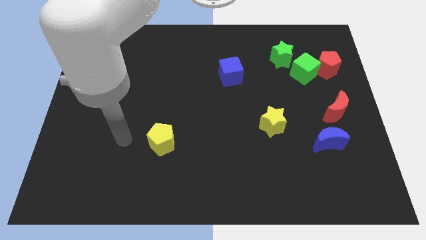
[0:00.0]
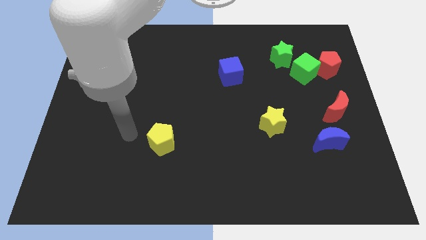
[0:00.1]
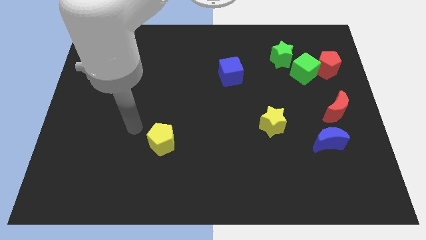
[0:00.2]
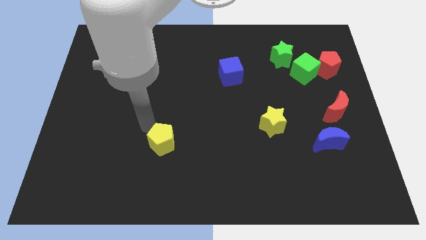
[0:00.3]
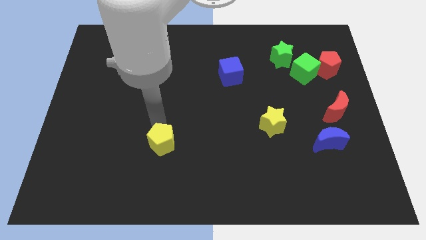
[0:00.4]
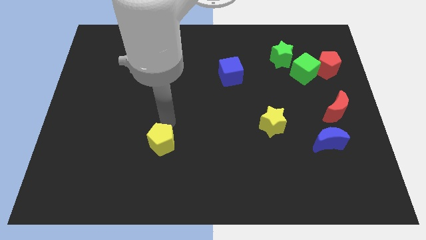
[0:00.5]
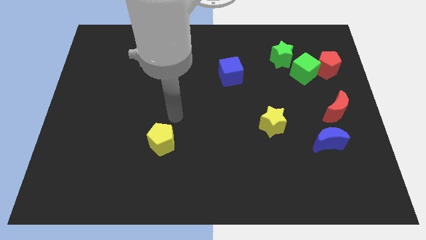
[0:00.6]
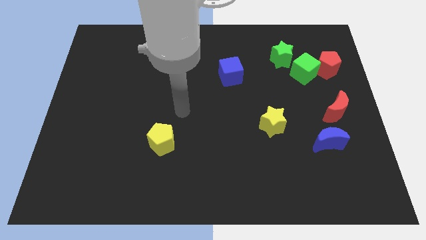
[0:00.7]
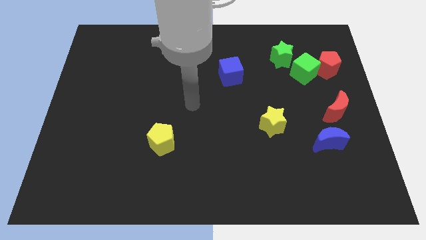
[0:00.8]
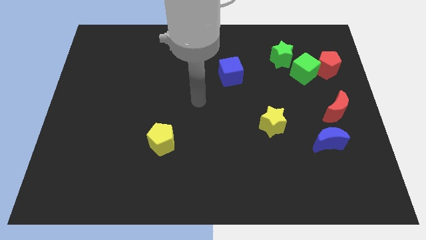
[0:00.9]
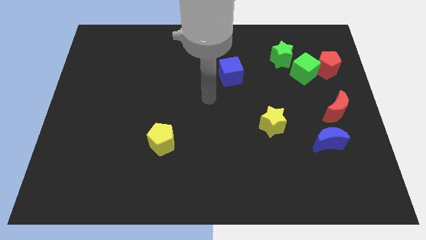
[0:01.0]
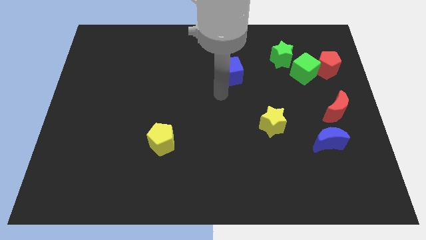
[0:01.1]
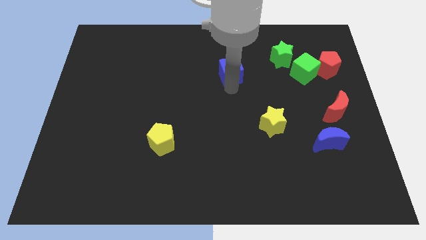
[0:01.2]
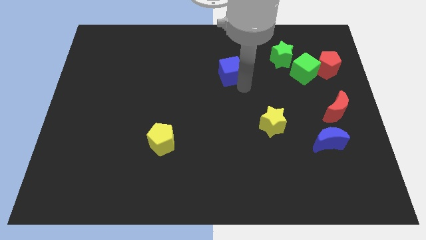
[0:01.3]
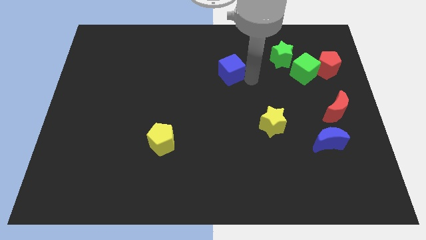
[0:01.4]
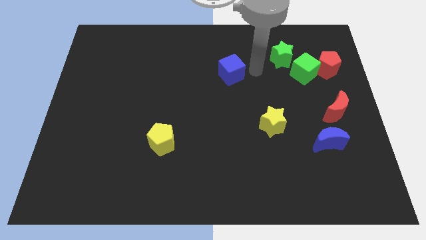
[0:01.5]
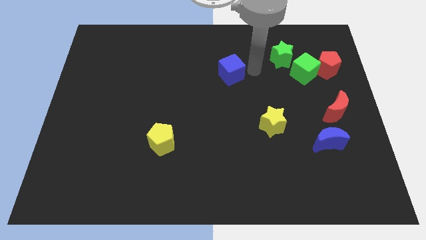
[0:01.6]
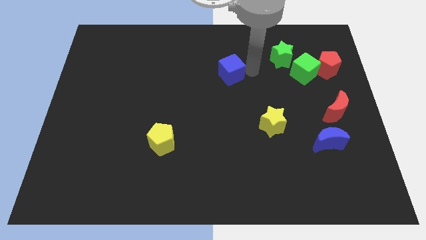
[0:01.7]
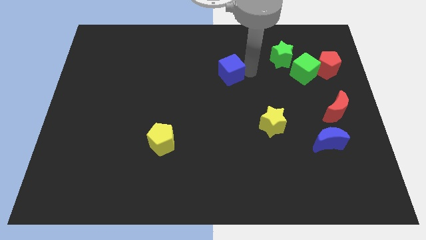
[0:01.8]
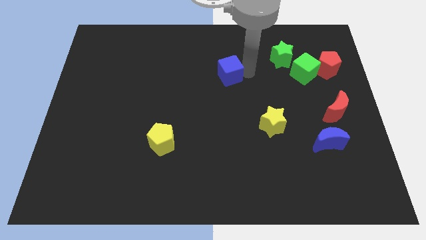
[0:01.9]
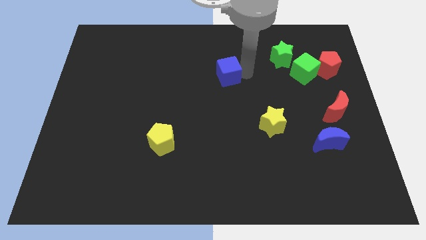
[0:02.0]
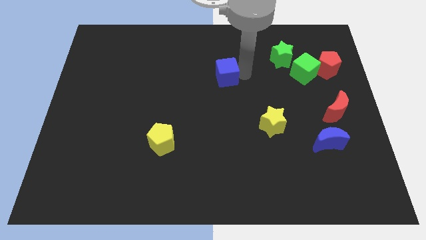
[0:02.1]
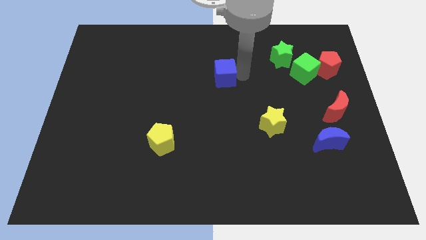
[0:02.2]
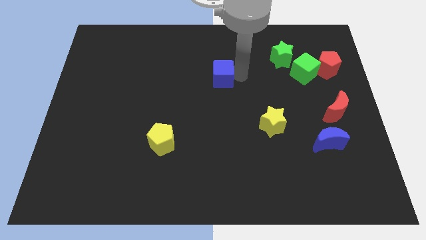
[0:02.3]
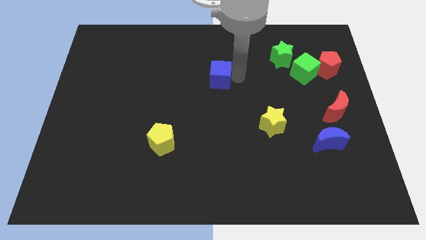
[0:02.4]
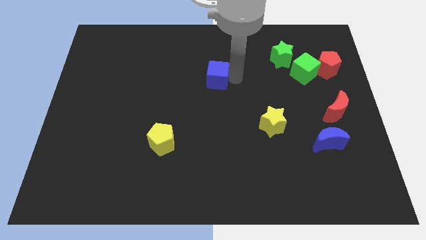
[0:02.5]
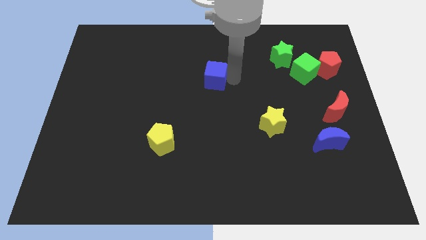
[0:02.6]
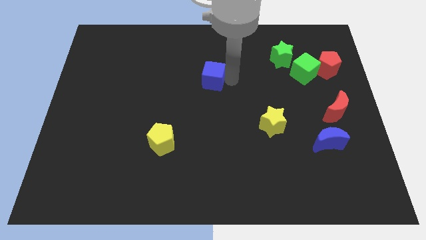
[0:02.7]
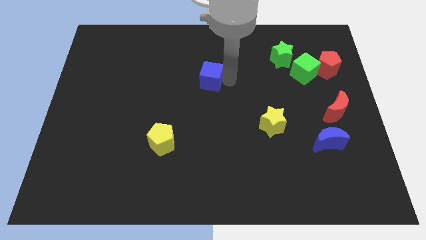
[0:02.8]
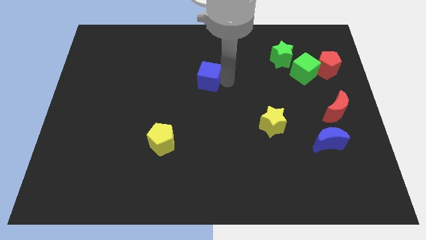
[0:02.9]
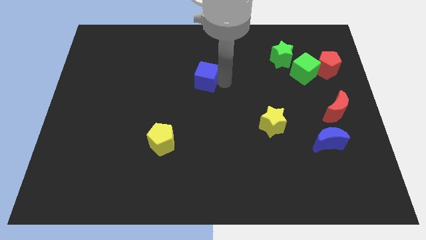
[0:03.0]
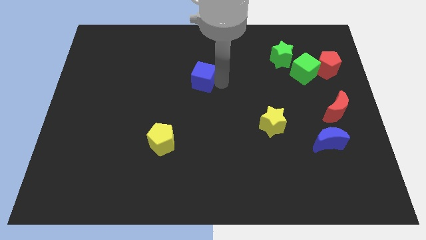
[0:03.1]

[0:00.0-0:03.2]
slightly slide the blue cube to the left

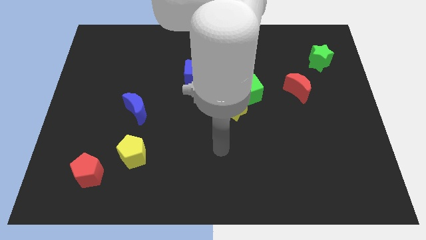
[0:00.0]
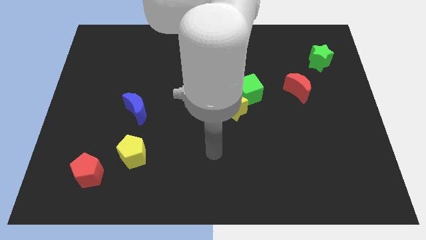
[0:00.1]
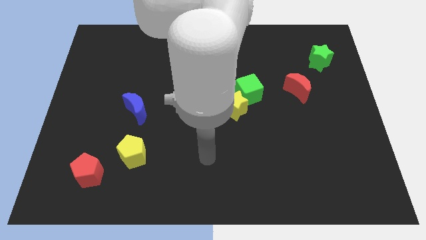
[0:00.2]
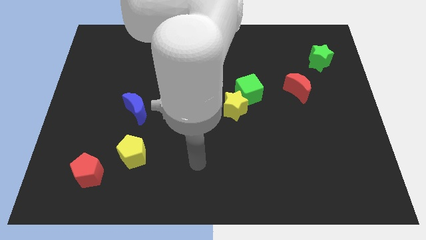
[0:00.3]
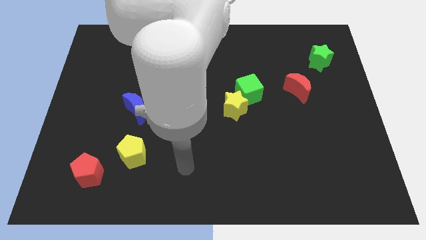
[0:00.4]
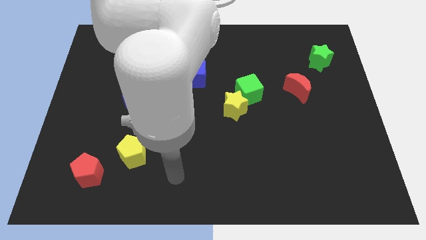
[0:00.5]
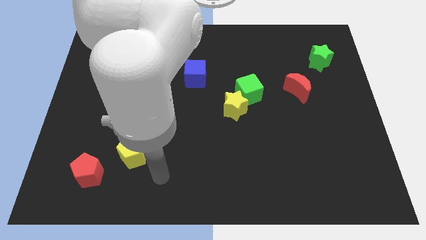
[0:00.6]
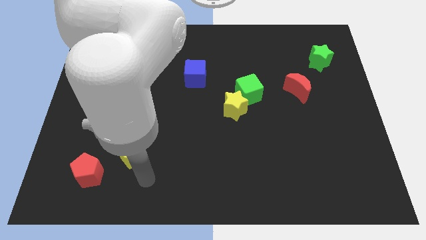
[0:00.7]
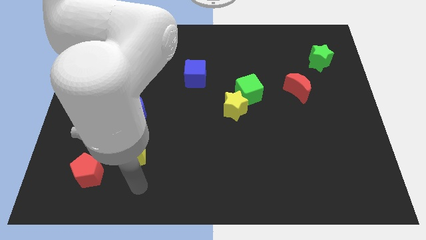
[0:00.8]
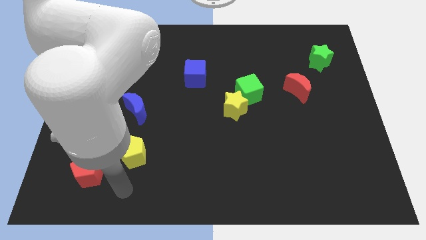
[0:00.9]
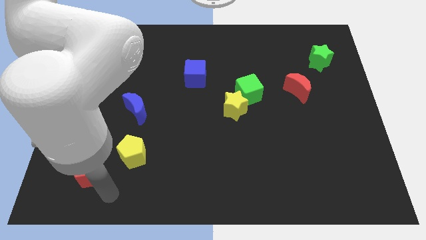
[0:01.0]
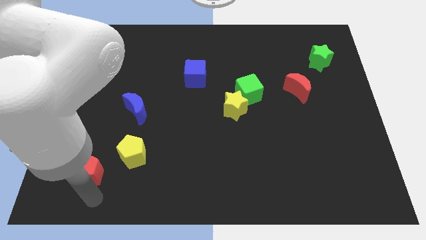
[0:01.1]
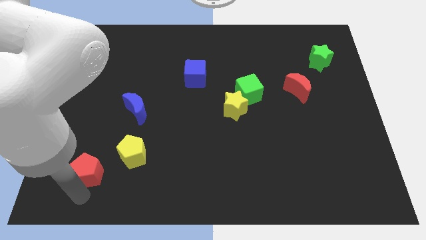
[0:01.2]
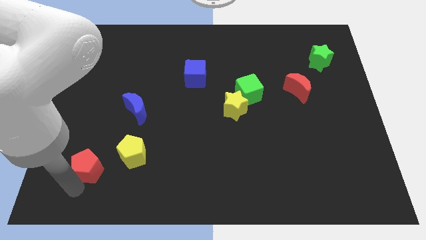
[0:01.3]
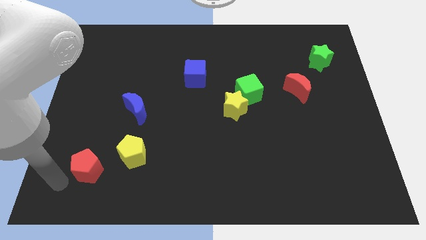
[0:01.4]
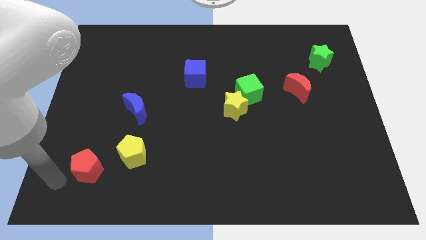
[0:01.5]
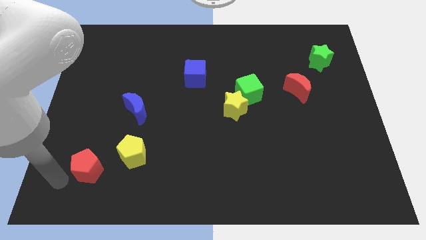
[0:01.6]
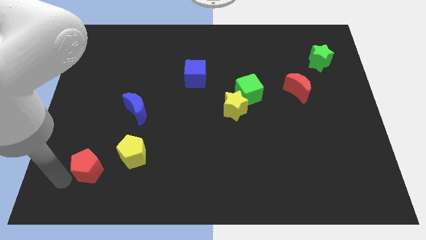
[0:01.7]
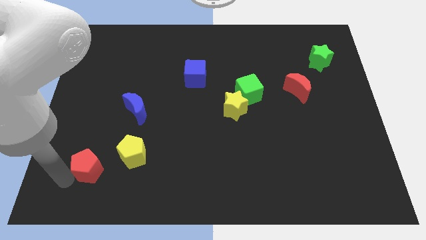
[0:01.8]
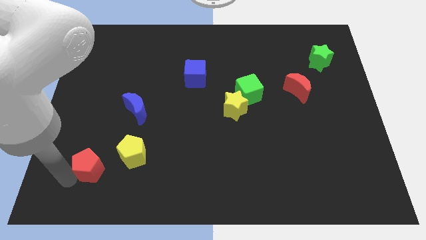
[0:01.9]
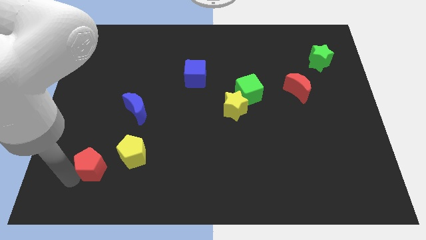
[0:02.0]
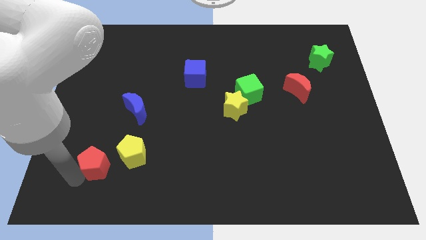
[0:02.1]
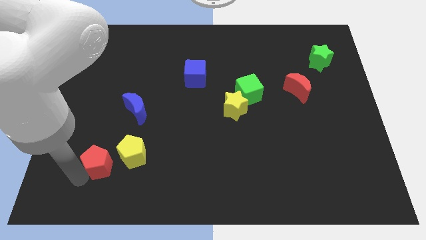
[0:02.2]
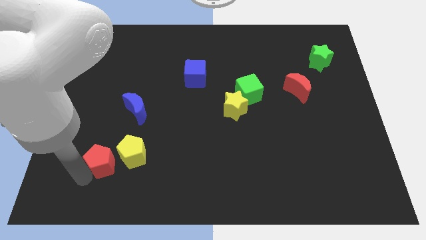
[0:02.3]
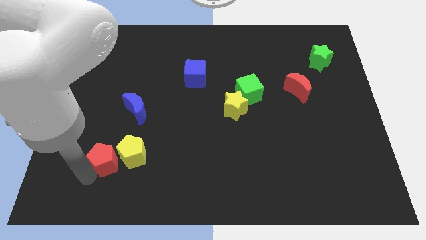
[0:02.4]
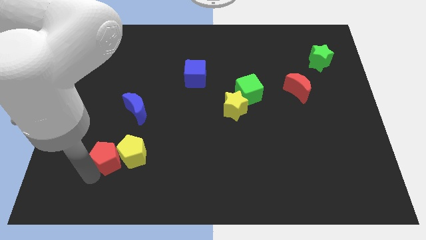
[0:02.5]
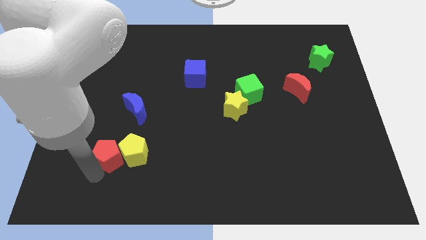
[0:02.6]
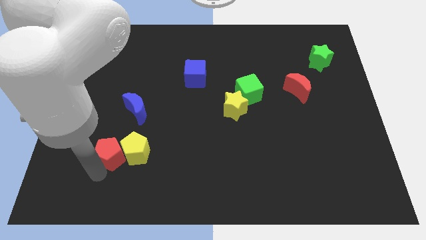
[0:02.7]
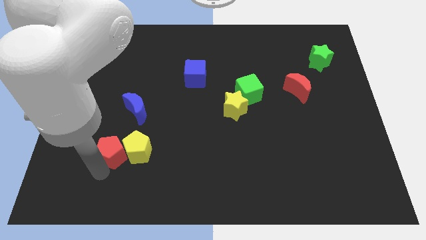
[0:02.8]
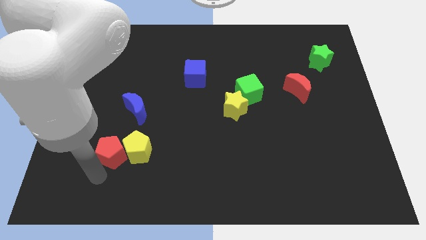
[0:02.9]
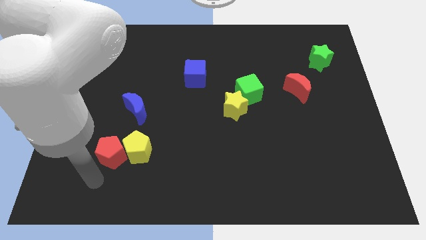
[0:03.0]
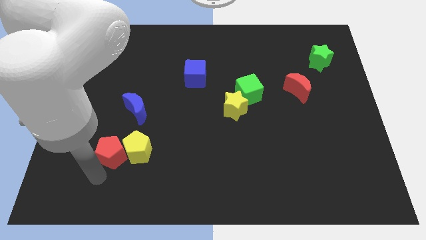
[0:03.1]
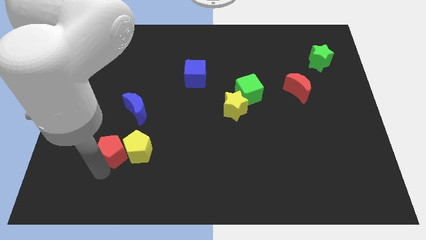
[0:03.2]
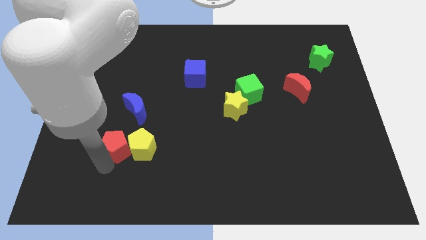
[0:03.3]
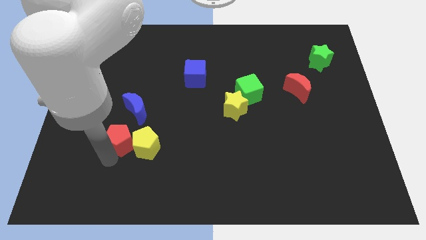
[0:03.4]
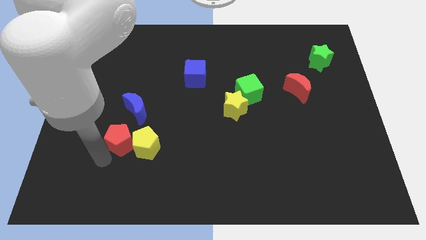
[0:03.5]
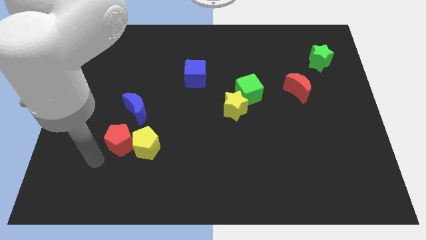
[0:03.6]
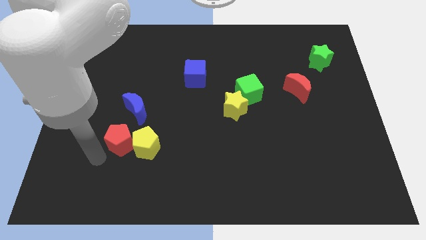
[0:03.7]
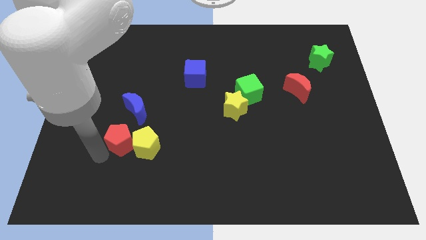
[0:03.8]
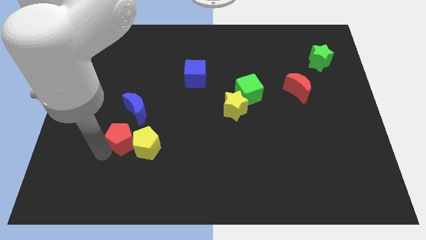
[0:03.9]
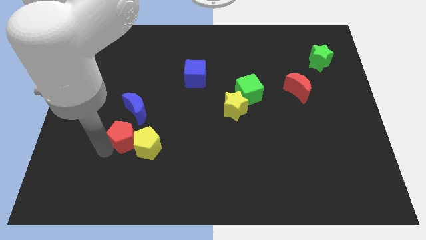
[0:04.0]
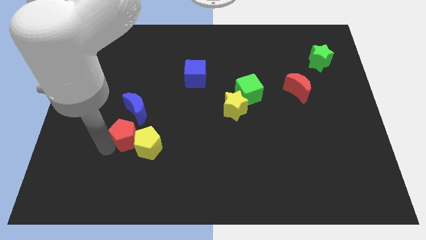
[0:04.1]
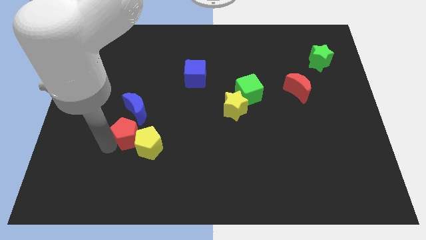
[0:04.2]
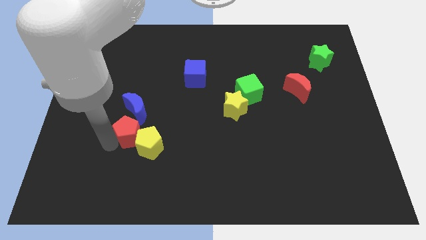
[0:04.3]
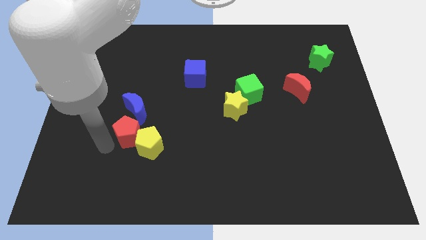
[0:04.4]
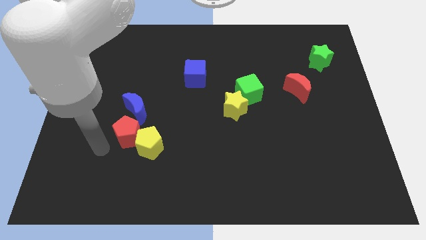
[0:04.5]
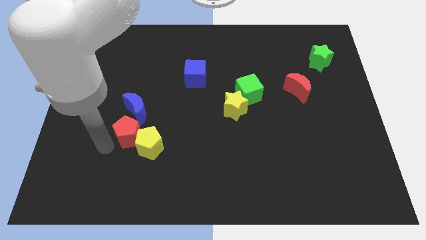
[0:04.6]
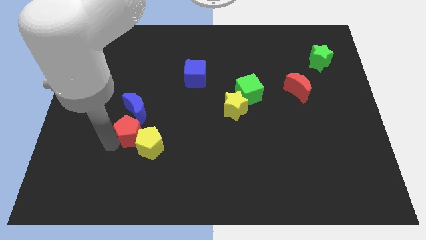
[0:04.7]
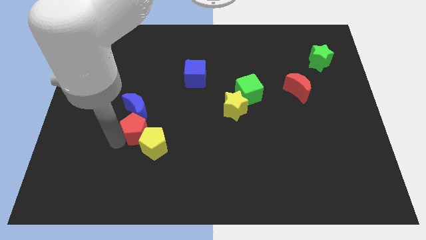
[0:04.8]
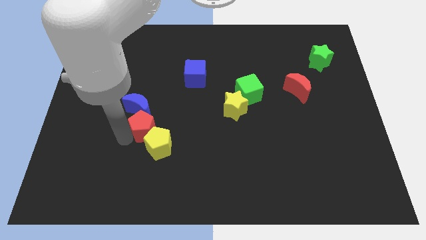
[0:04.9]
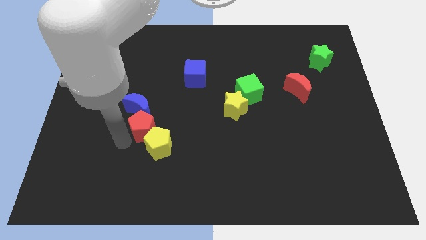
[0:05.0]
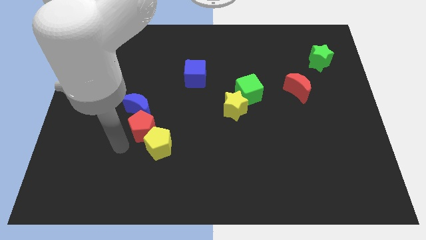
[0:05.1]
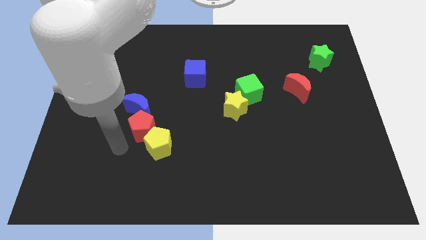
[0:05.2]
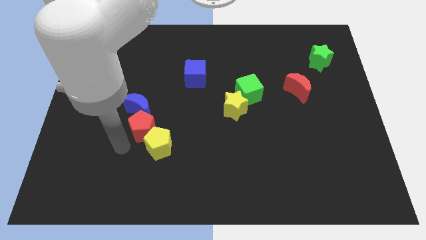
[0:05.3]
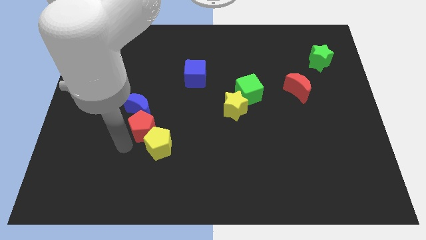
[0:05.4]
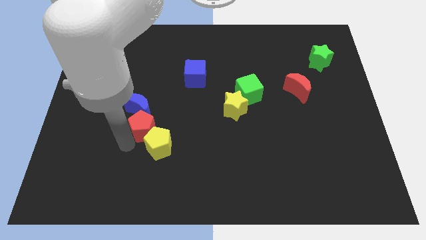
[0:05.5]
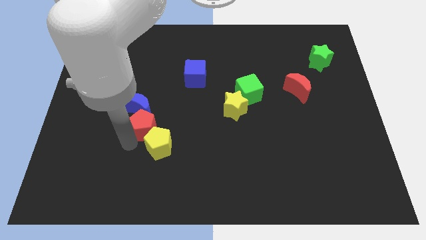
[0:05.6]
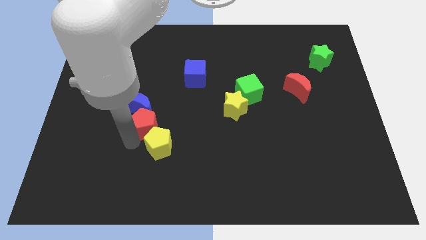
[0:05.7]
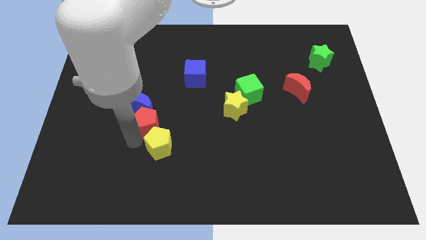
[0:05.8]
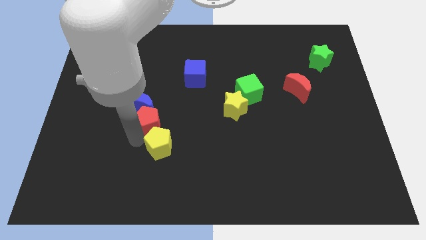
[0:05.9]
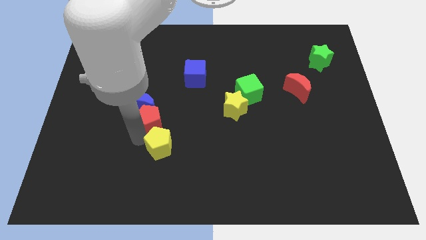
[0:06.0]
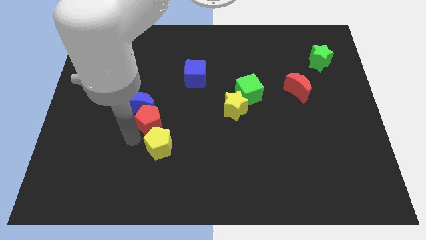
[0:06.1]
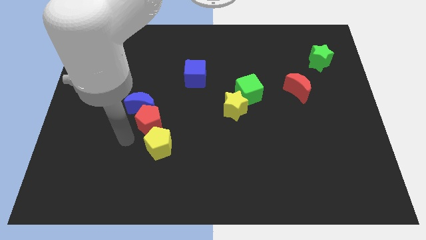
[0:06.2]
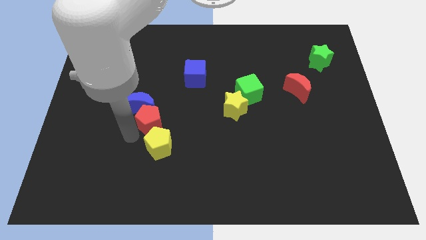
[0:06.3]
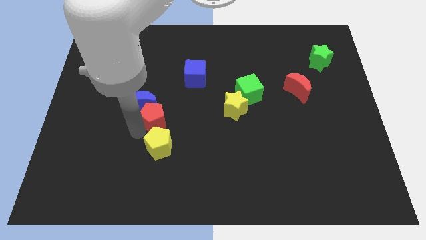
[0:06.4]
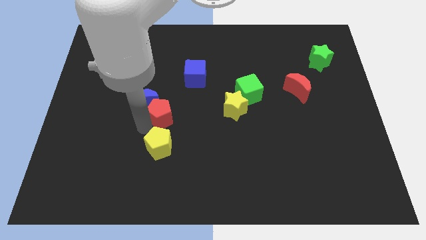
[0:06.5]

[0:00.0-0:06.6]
move the red pentagon upwards and then right
